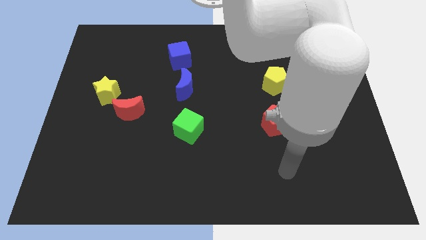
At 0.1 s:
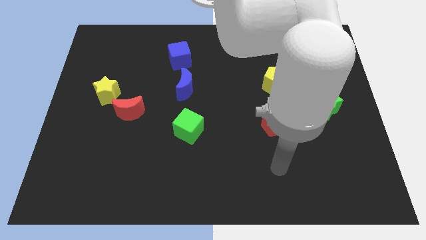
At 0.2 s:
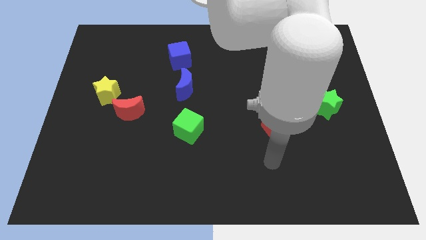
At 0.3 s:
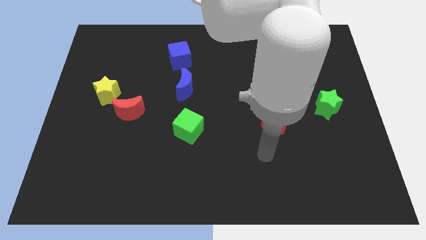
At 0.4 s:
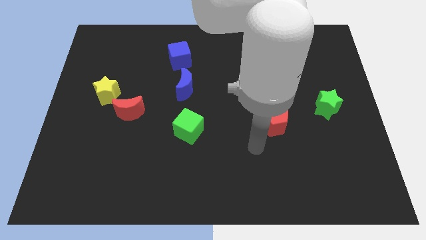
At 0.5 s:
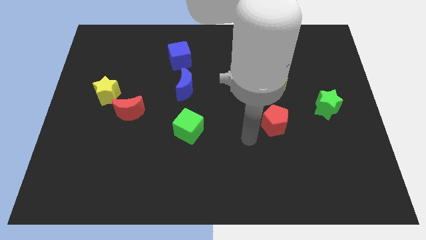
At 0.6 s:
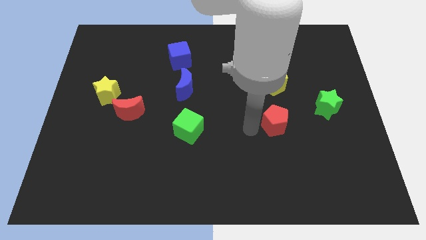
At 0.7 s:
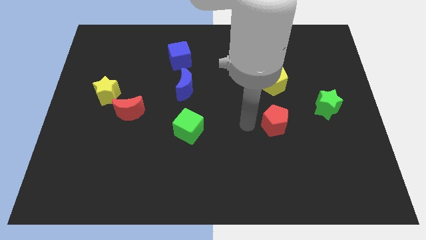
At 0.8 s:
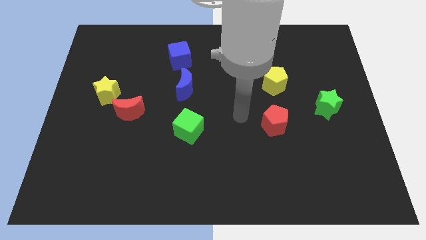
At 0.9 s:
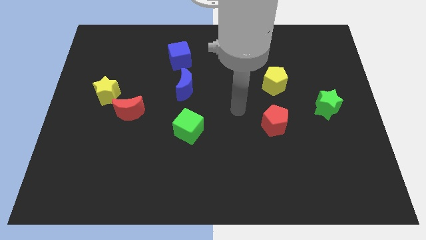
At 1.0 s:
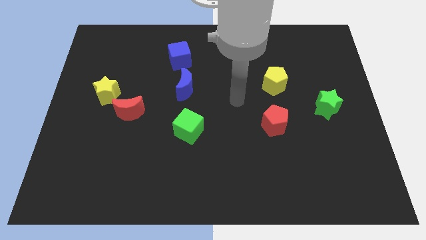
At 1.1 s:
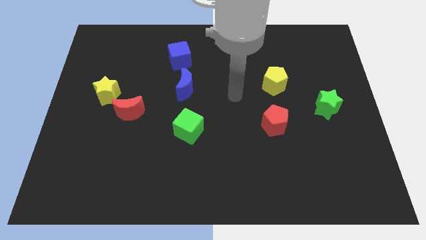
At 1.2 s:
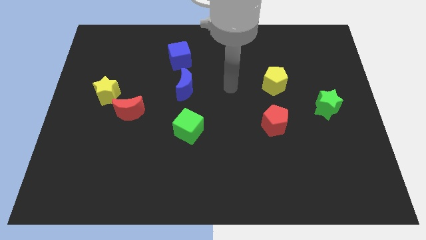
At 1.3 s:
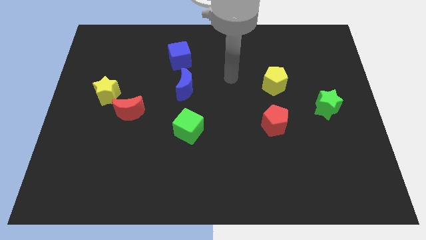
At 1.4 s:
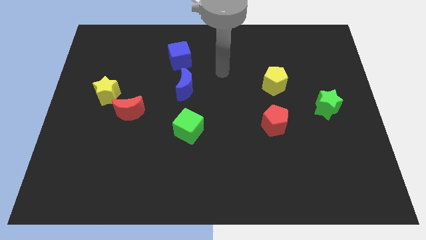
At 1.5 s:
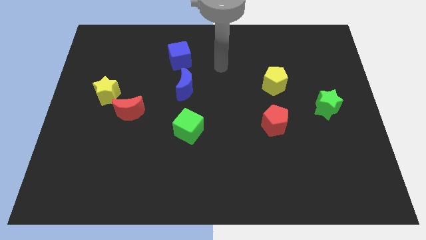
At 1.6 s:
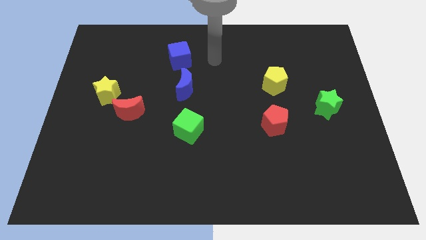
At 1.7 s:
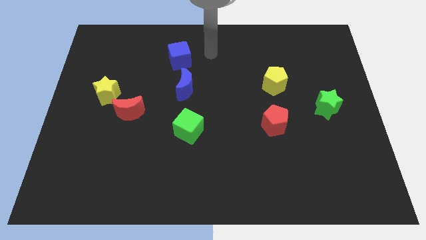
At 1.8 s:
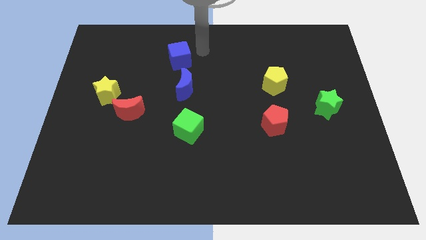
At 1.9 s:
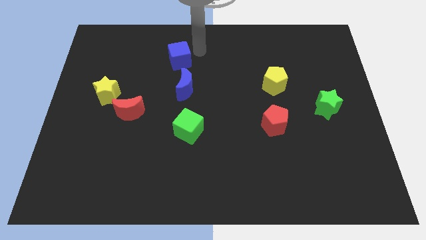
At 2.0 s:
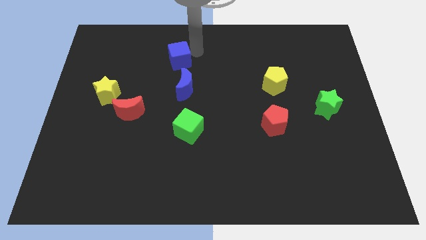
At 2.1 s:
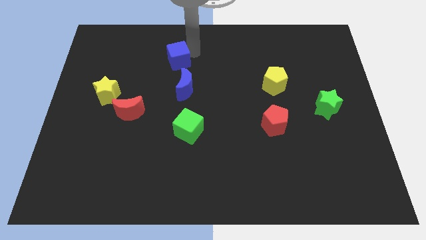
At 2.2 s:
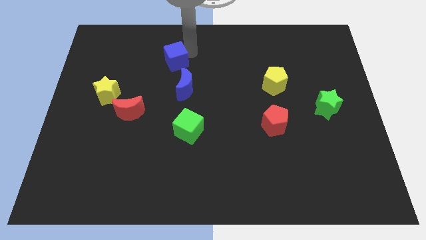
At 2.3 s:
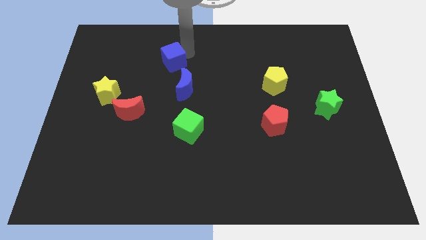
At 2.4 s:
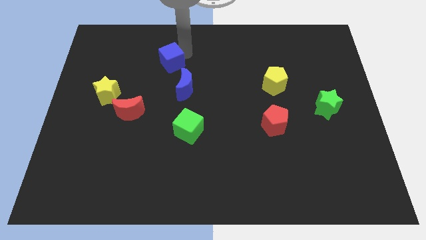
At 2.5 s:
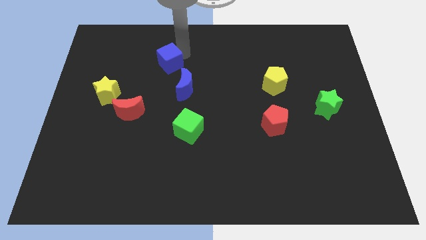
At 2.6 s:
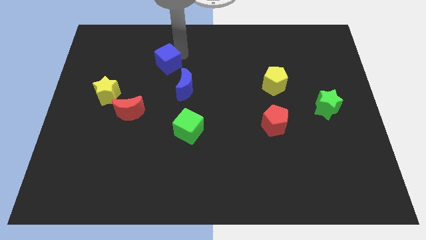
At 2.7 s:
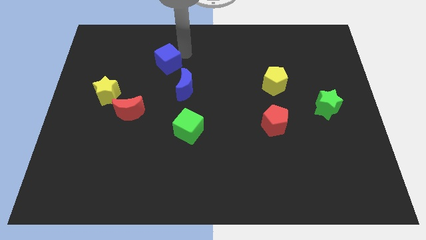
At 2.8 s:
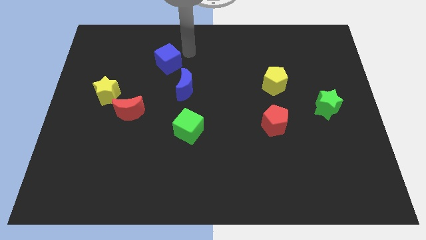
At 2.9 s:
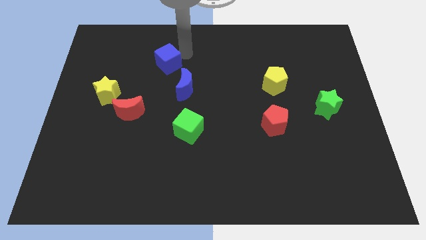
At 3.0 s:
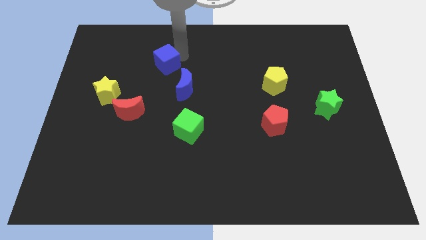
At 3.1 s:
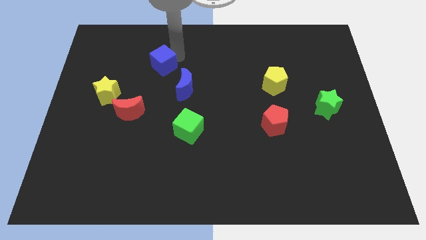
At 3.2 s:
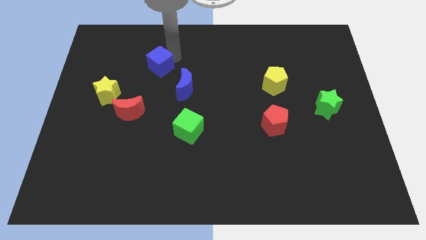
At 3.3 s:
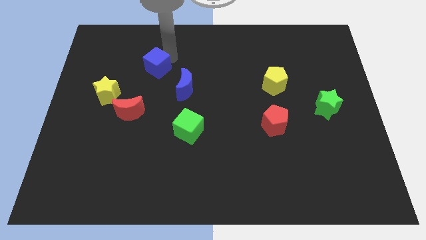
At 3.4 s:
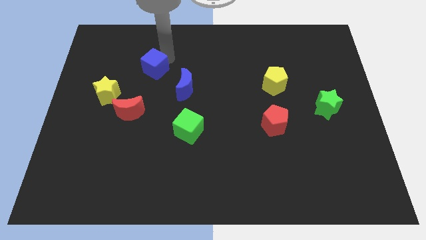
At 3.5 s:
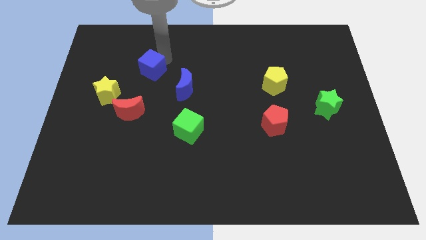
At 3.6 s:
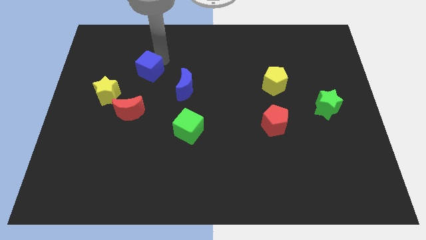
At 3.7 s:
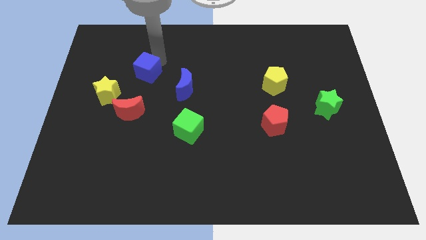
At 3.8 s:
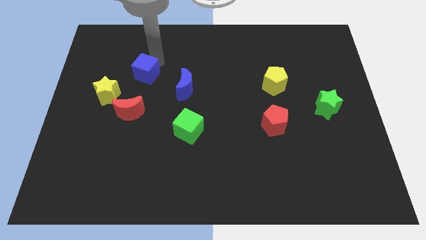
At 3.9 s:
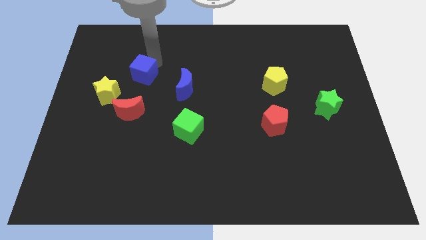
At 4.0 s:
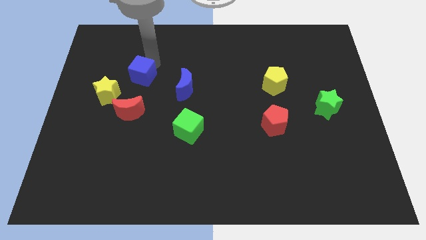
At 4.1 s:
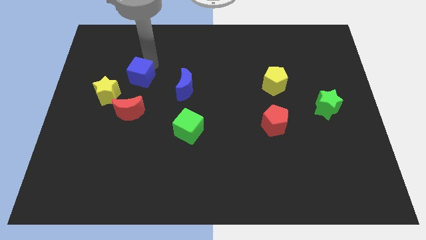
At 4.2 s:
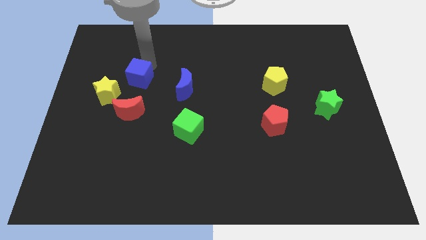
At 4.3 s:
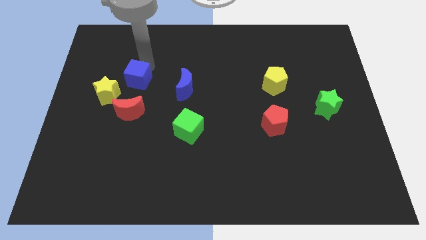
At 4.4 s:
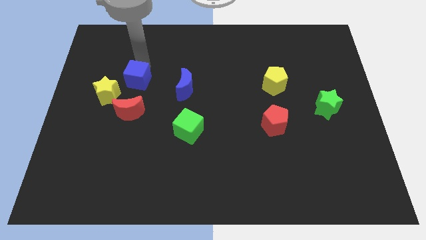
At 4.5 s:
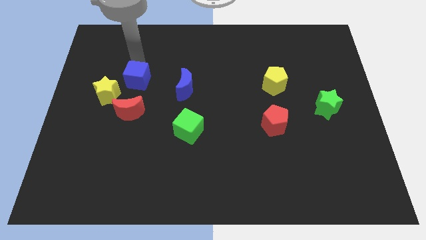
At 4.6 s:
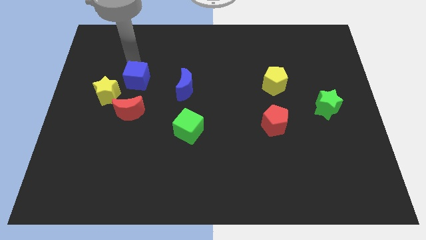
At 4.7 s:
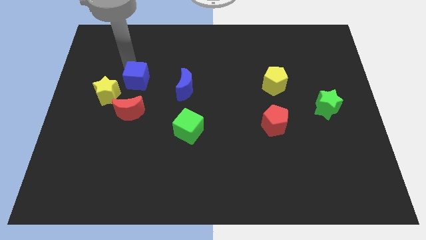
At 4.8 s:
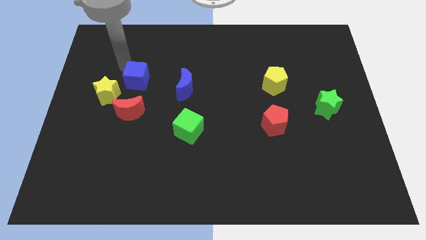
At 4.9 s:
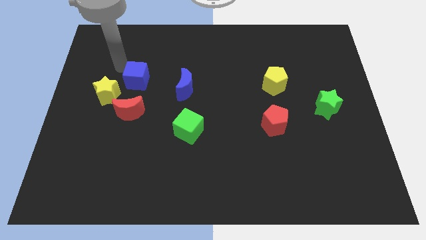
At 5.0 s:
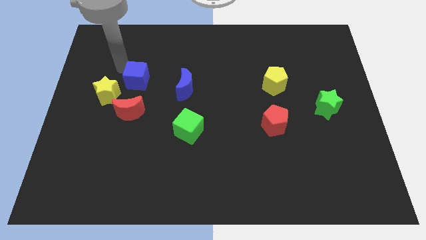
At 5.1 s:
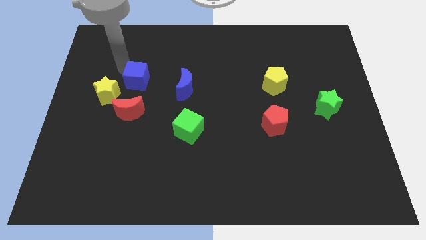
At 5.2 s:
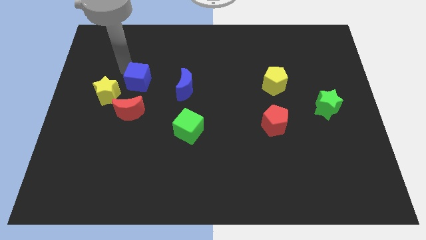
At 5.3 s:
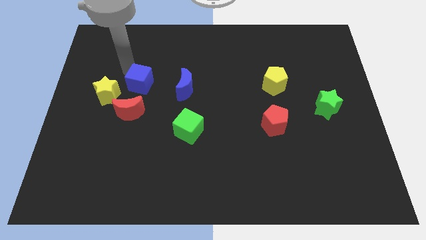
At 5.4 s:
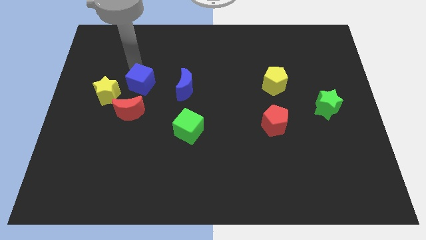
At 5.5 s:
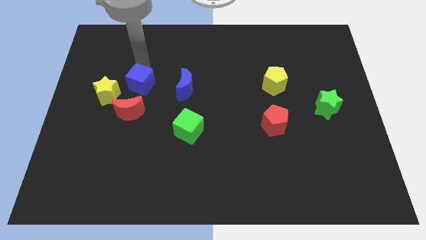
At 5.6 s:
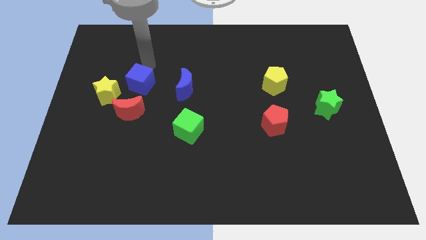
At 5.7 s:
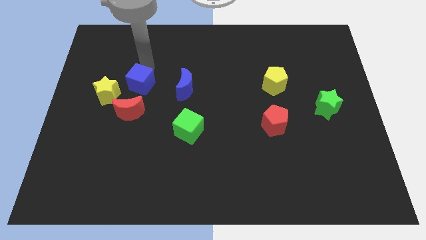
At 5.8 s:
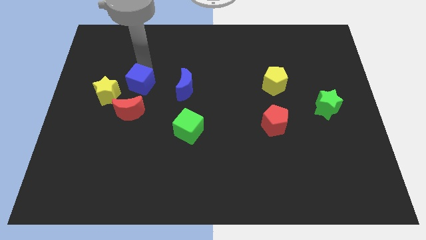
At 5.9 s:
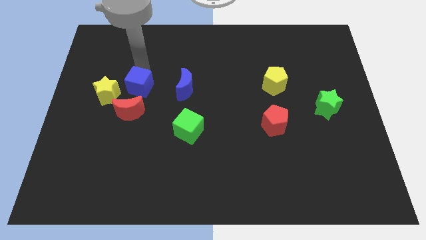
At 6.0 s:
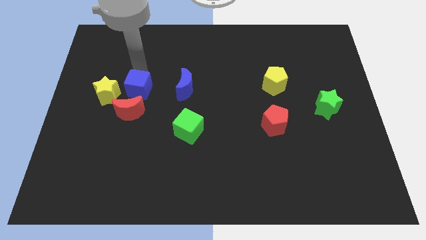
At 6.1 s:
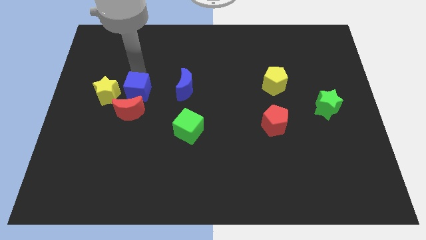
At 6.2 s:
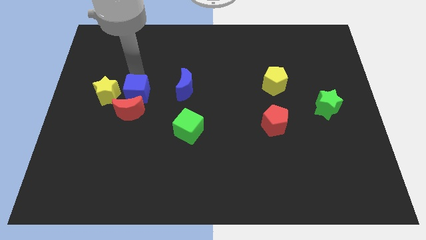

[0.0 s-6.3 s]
slide the blue cube next to the red moon

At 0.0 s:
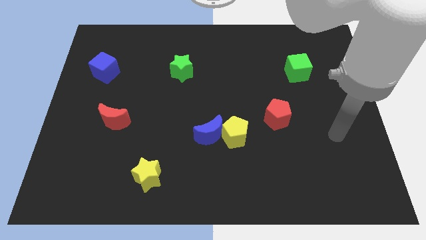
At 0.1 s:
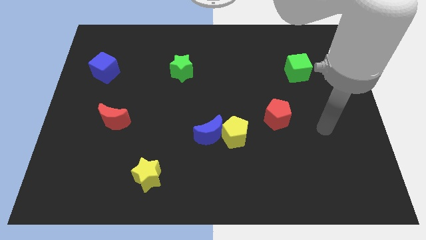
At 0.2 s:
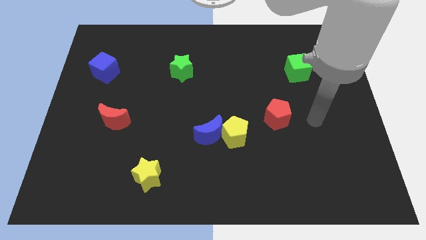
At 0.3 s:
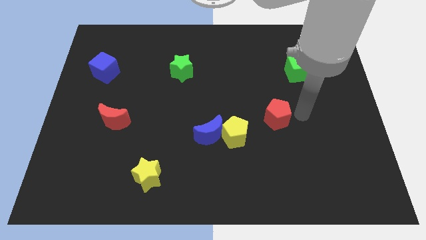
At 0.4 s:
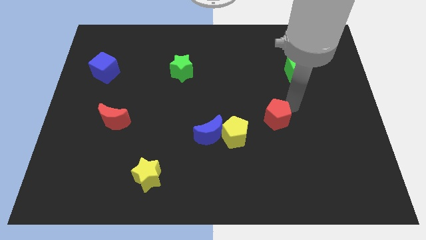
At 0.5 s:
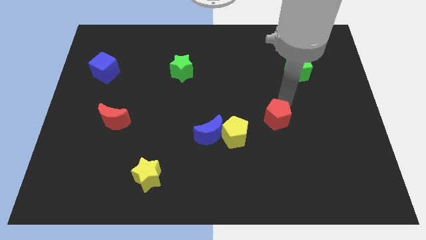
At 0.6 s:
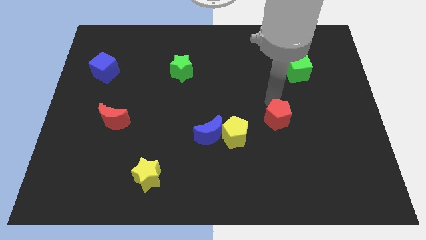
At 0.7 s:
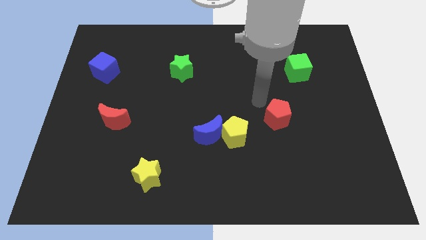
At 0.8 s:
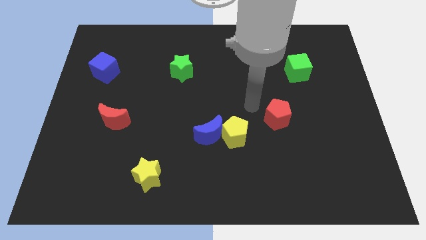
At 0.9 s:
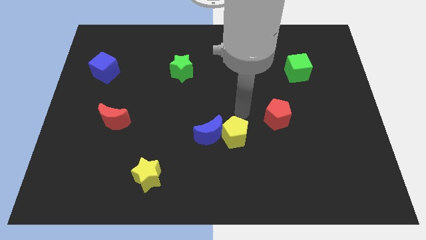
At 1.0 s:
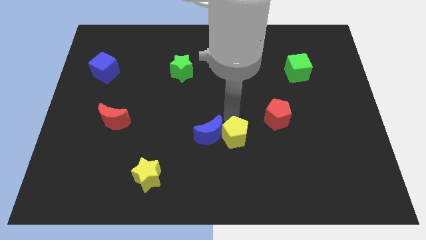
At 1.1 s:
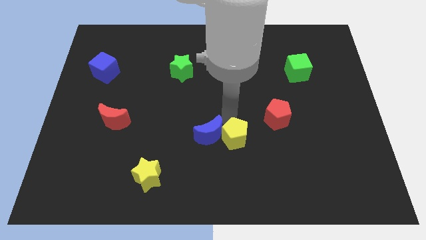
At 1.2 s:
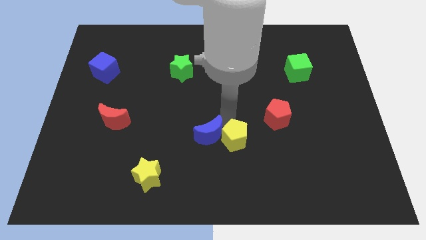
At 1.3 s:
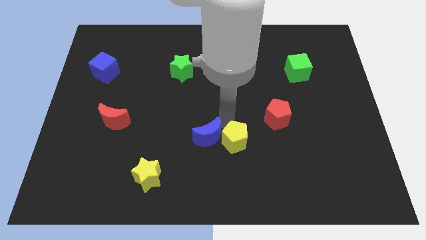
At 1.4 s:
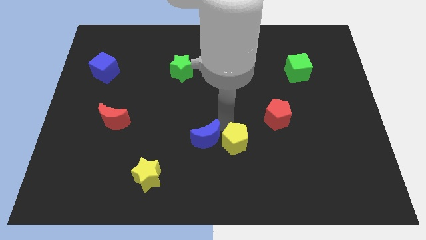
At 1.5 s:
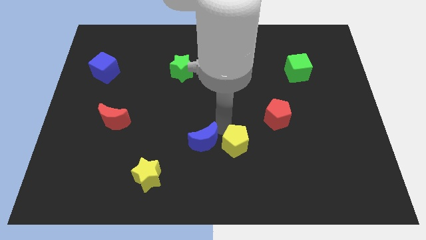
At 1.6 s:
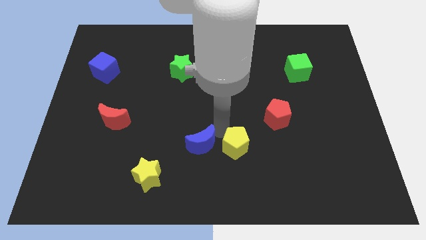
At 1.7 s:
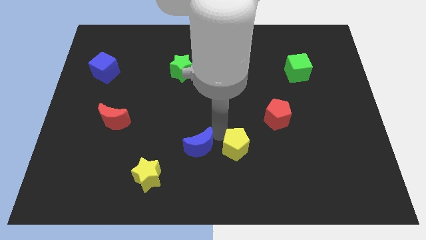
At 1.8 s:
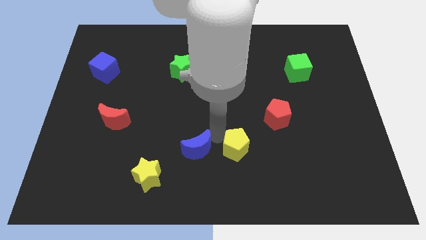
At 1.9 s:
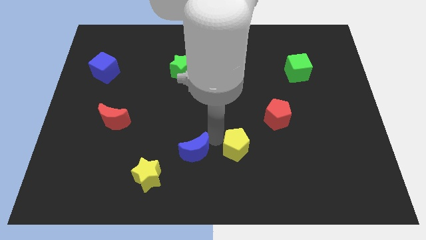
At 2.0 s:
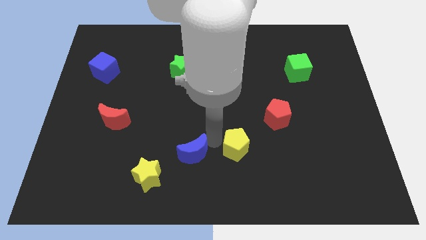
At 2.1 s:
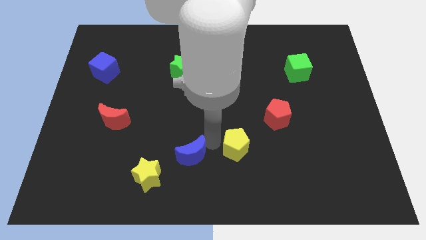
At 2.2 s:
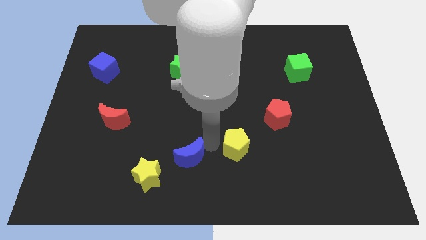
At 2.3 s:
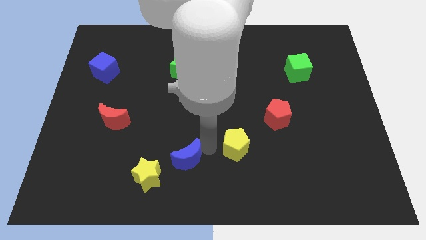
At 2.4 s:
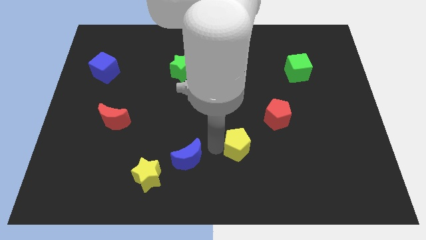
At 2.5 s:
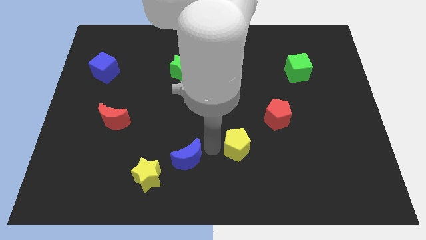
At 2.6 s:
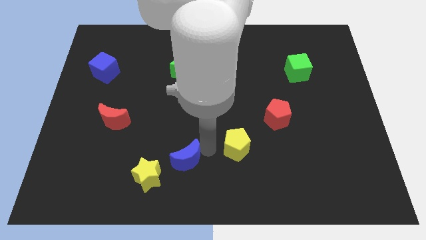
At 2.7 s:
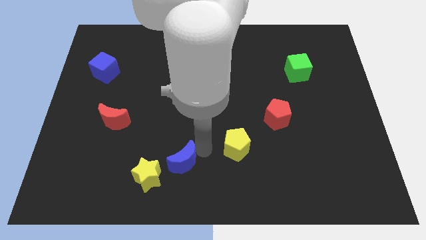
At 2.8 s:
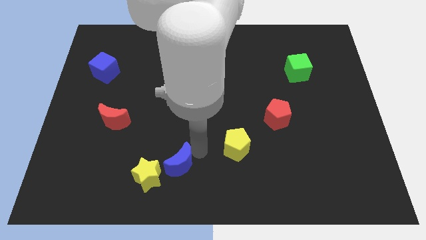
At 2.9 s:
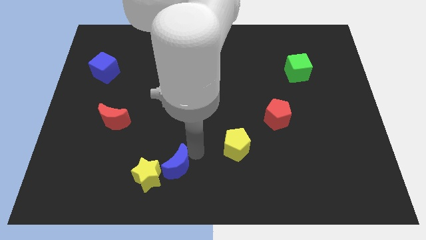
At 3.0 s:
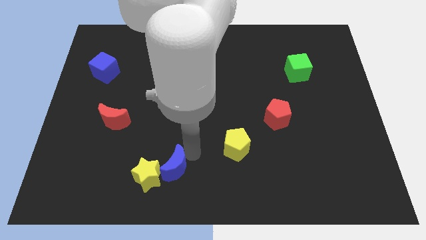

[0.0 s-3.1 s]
push the blue moon close to the yellow star
